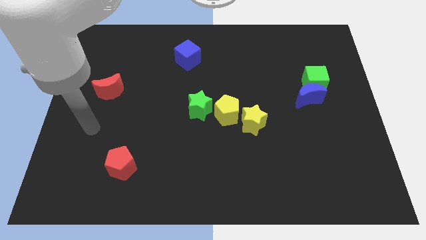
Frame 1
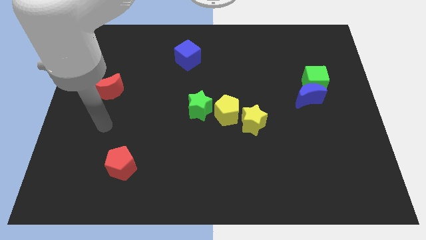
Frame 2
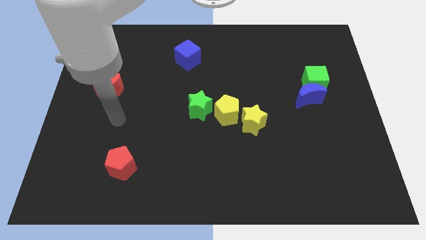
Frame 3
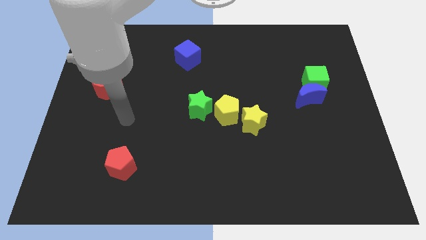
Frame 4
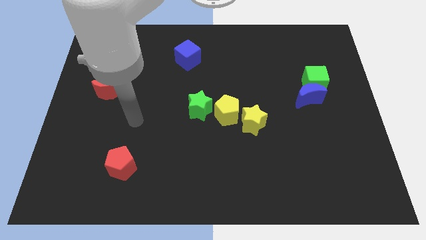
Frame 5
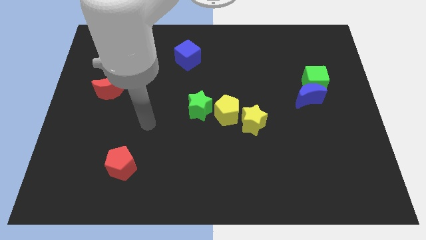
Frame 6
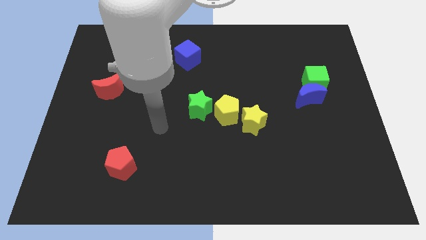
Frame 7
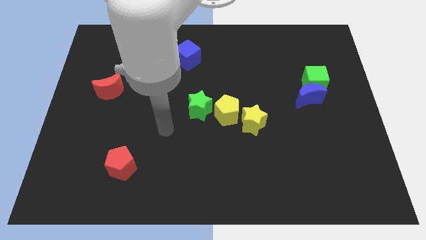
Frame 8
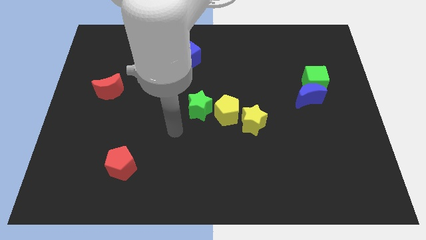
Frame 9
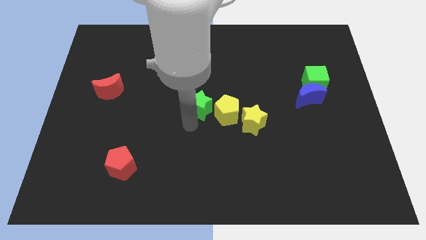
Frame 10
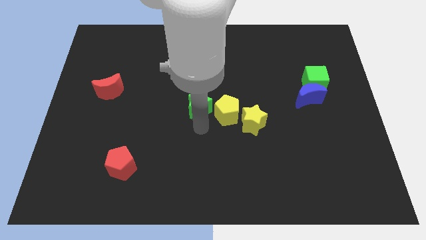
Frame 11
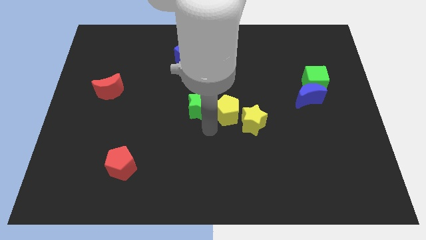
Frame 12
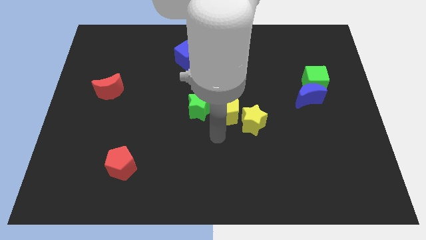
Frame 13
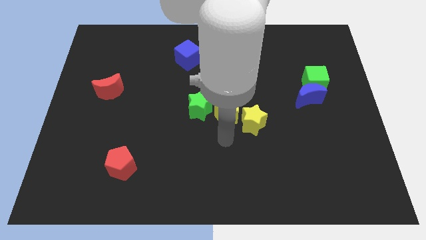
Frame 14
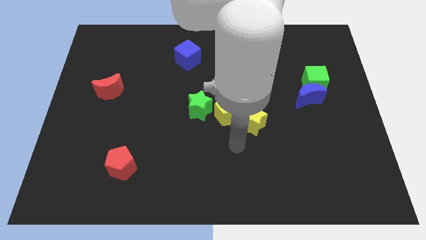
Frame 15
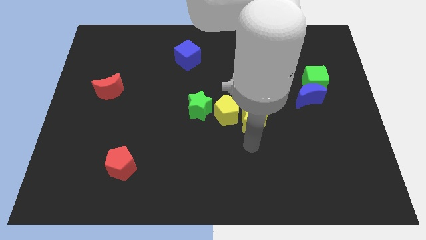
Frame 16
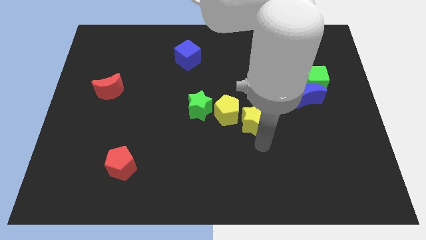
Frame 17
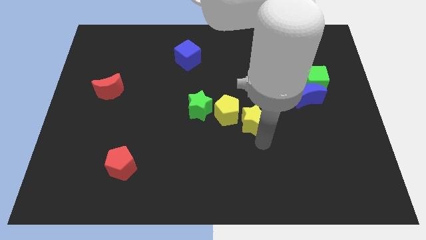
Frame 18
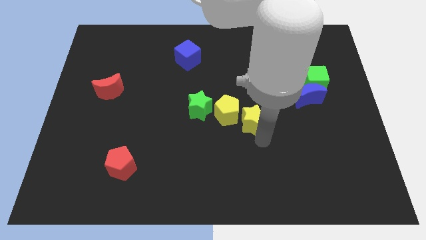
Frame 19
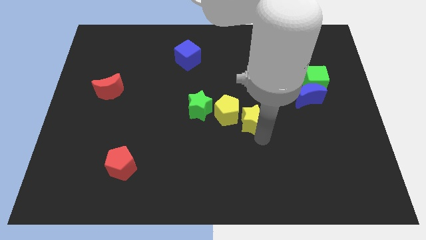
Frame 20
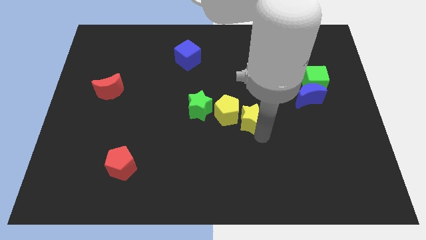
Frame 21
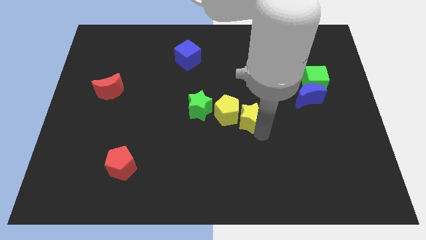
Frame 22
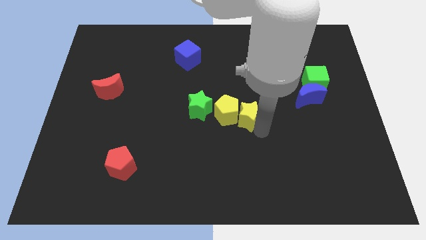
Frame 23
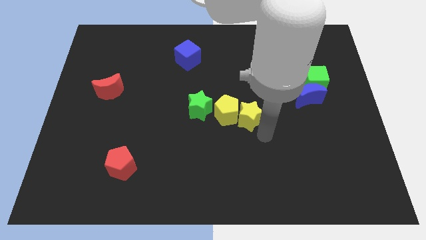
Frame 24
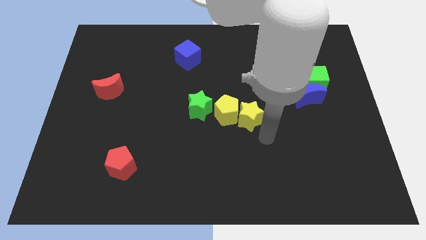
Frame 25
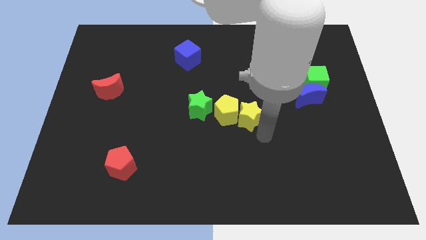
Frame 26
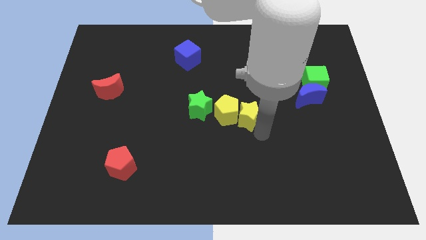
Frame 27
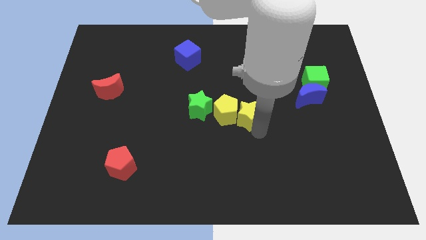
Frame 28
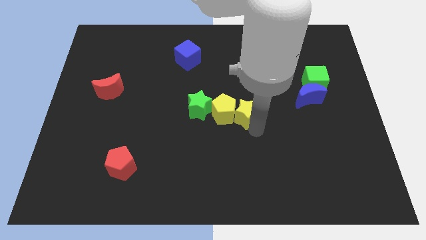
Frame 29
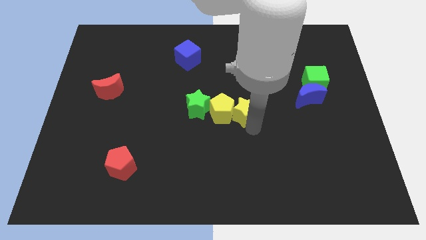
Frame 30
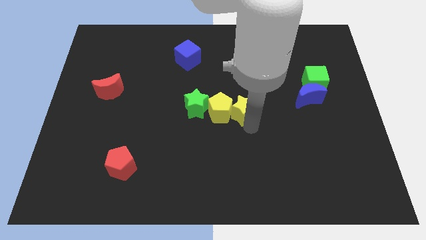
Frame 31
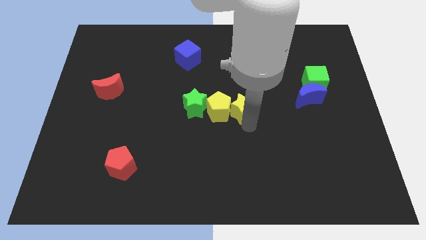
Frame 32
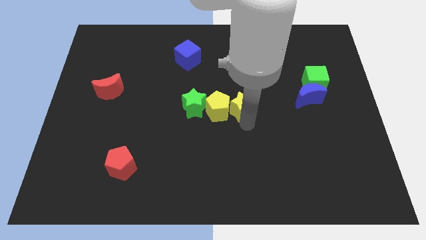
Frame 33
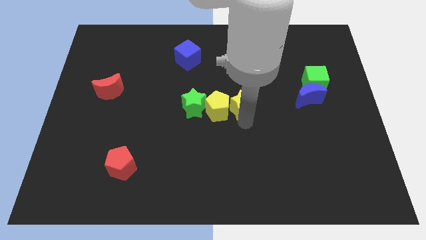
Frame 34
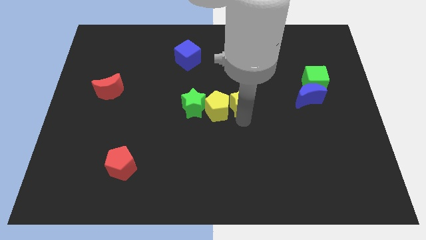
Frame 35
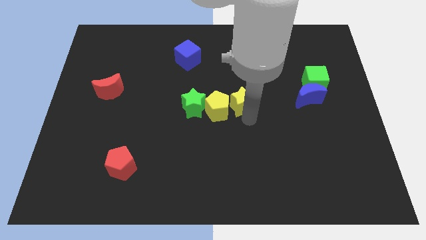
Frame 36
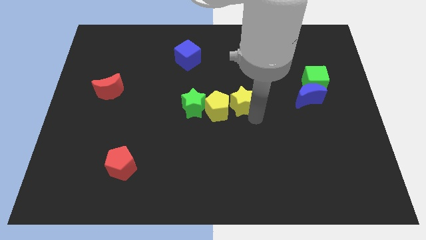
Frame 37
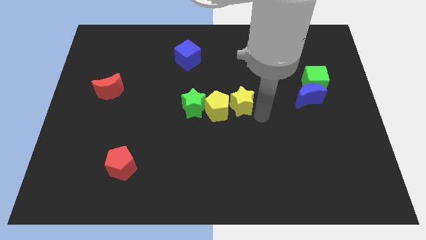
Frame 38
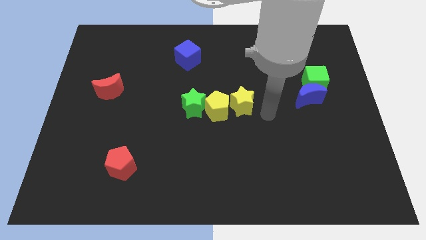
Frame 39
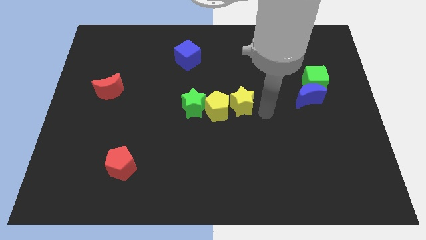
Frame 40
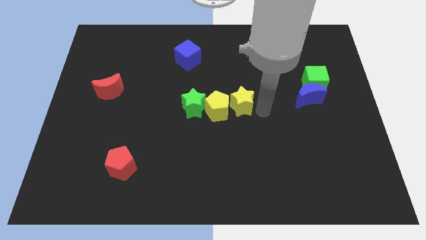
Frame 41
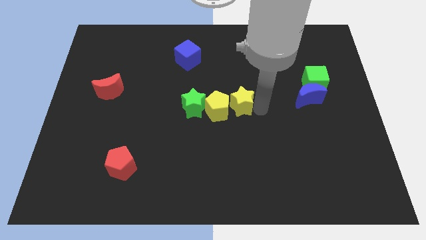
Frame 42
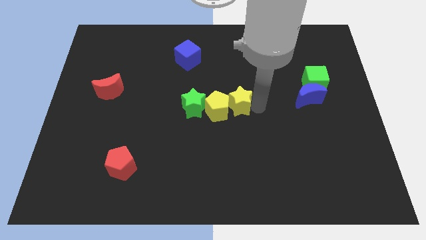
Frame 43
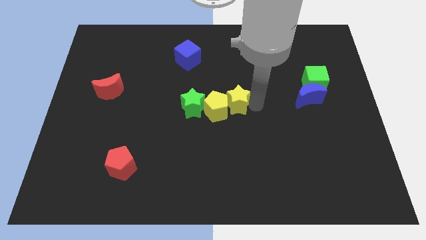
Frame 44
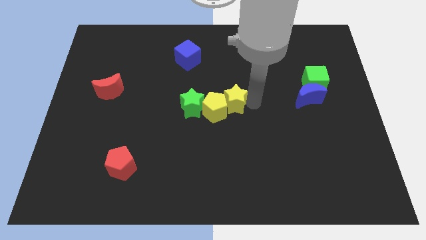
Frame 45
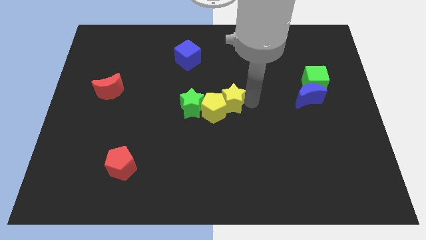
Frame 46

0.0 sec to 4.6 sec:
move the yellow star up and left slightly

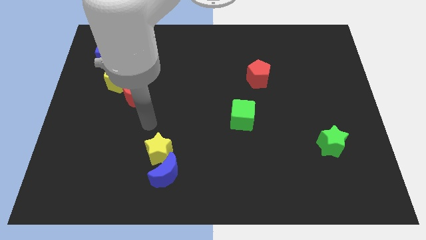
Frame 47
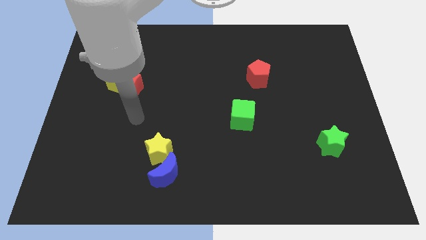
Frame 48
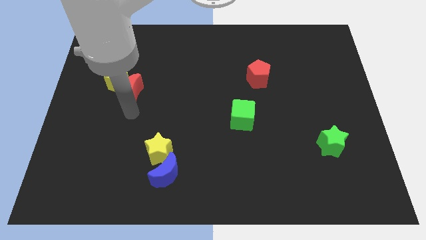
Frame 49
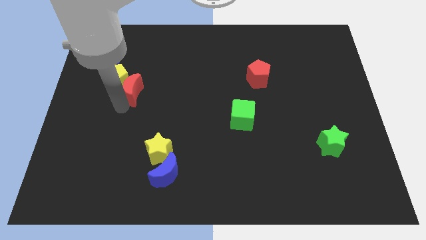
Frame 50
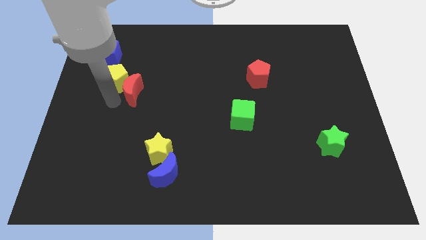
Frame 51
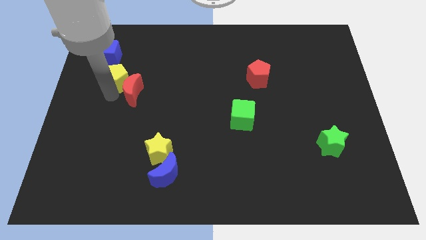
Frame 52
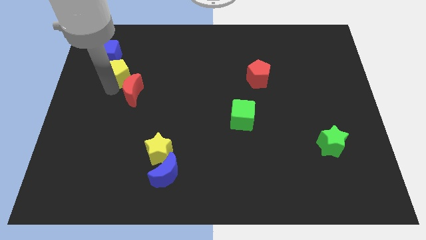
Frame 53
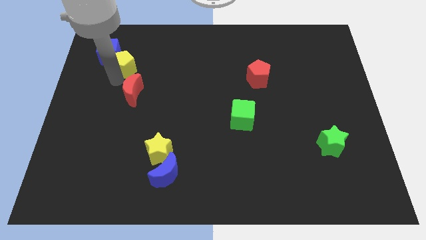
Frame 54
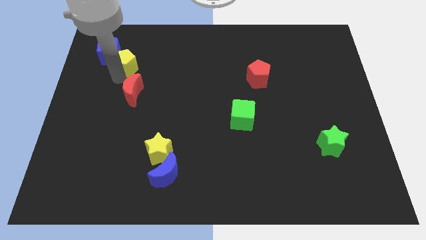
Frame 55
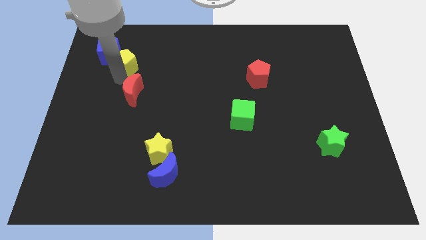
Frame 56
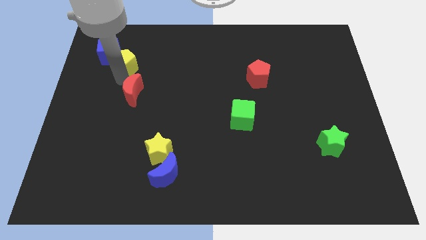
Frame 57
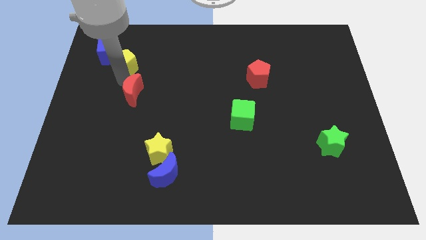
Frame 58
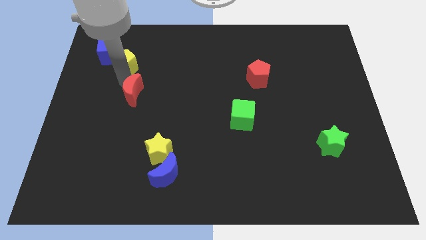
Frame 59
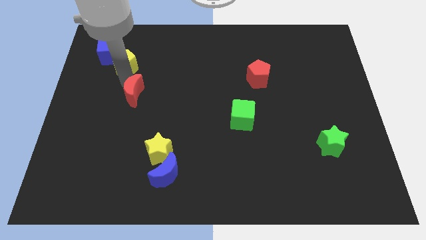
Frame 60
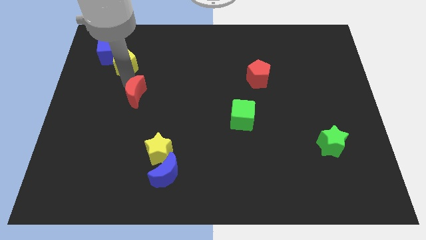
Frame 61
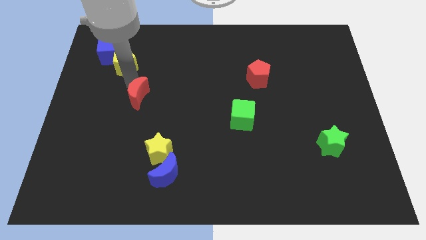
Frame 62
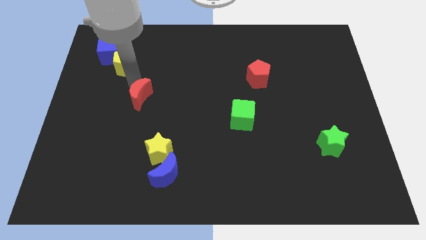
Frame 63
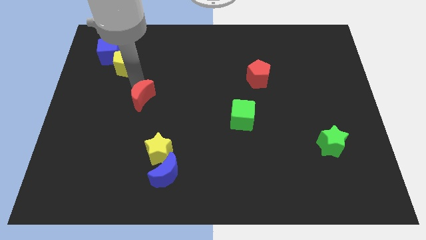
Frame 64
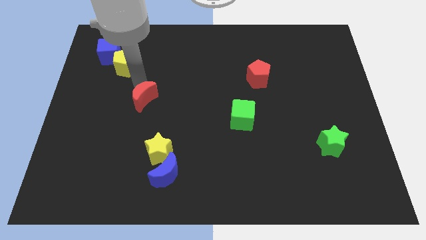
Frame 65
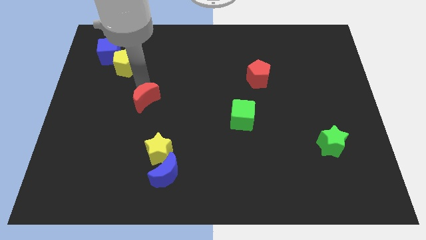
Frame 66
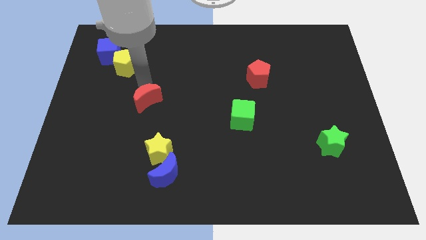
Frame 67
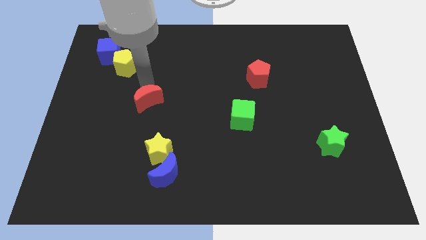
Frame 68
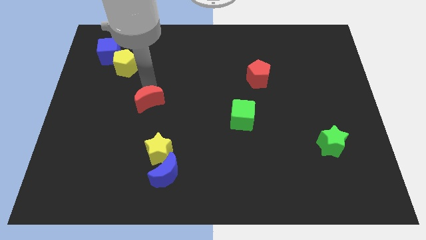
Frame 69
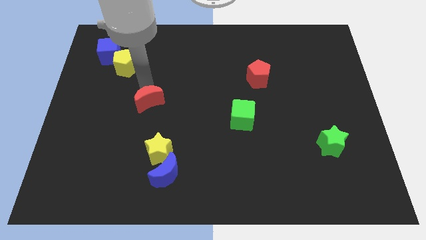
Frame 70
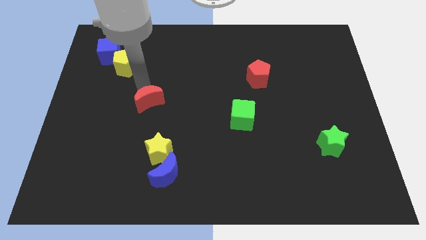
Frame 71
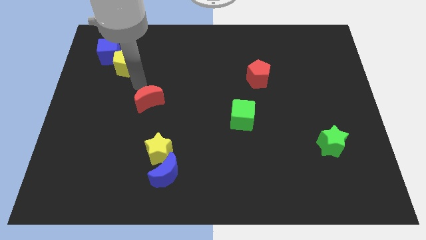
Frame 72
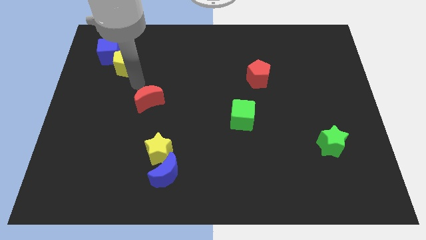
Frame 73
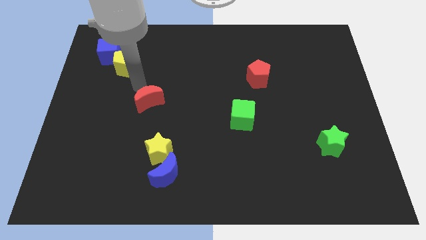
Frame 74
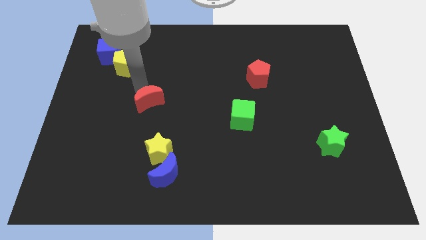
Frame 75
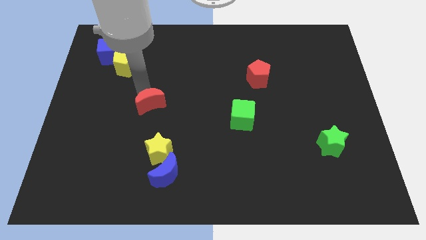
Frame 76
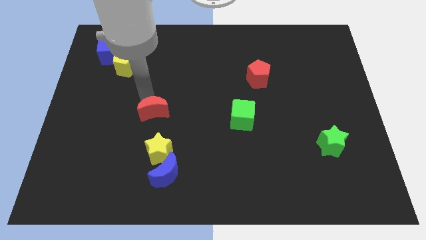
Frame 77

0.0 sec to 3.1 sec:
slightly push the red moon down and then to the right

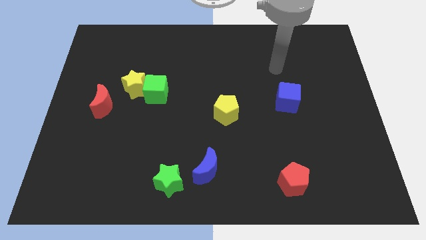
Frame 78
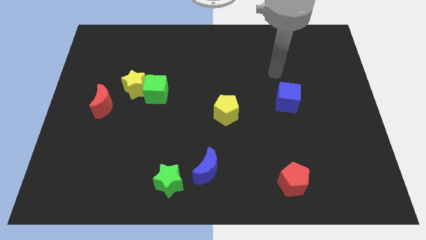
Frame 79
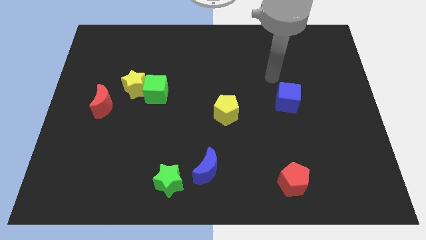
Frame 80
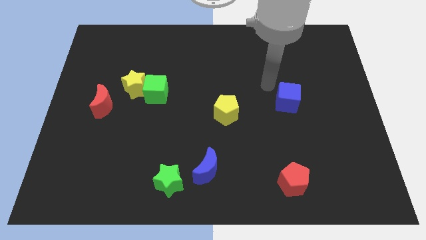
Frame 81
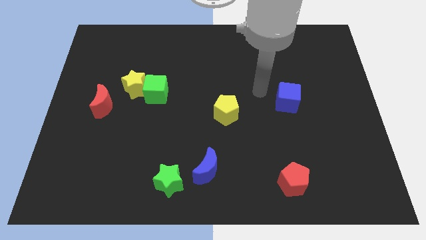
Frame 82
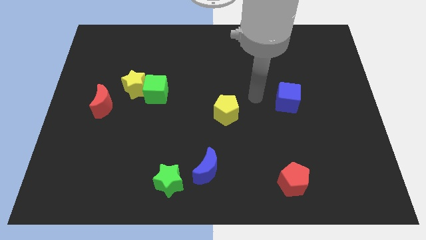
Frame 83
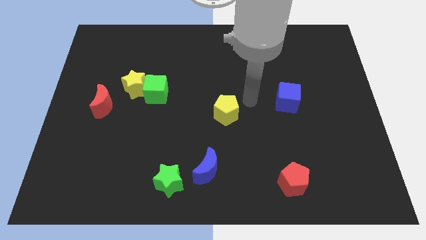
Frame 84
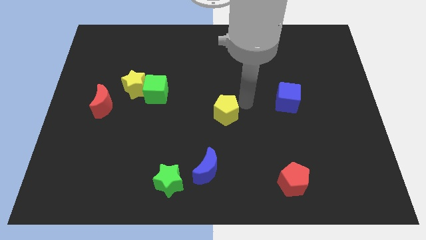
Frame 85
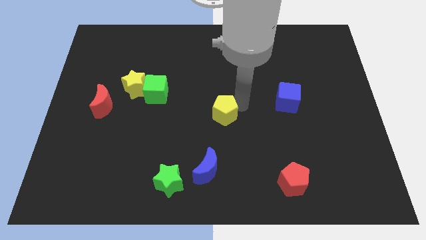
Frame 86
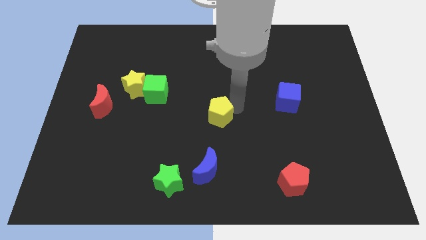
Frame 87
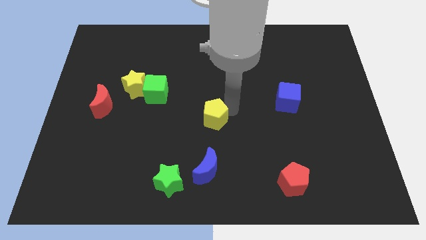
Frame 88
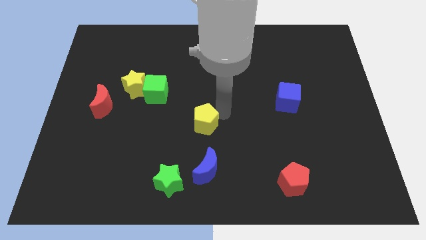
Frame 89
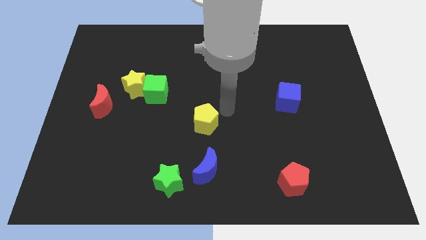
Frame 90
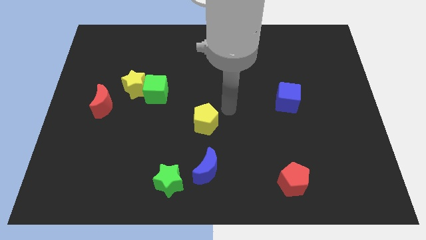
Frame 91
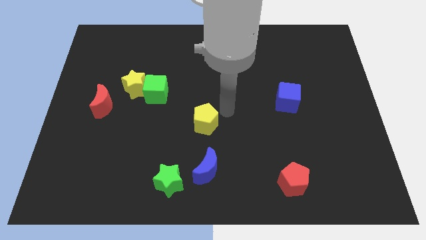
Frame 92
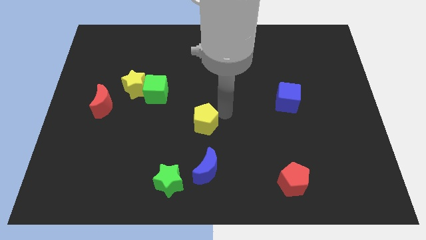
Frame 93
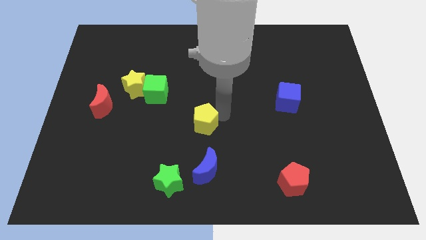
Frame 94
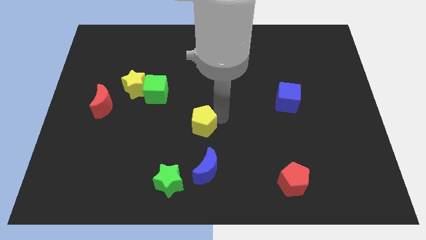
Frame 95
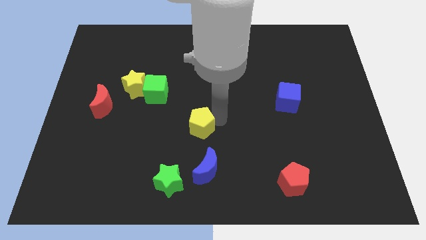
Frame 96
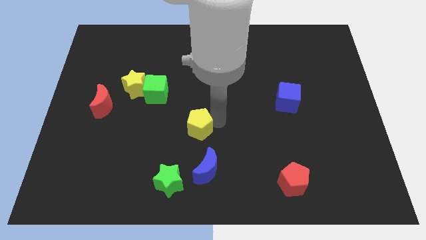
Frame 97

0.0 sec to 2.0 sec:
slightly move the yellow pentagon diagonally downwards and left
